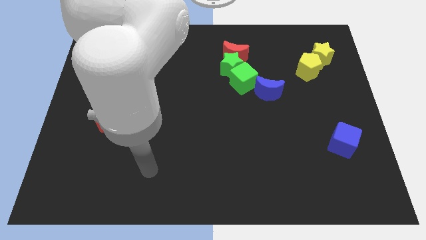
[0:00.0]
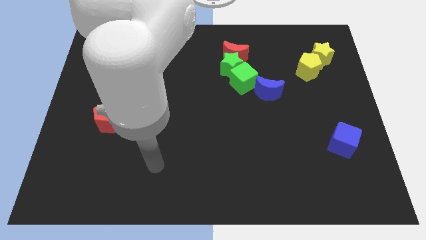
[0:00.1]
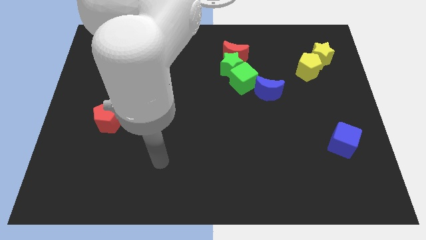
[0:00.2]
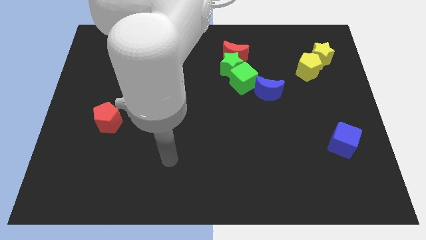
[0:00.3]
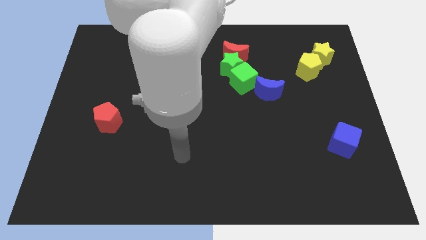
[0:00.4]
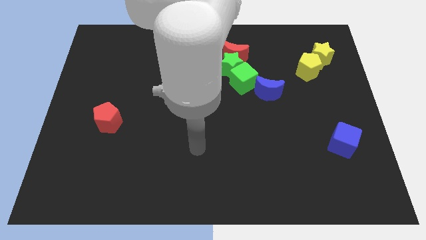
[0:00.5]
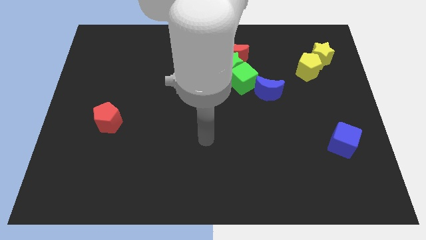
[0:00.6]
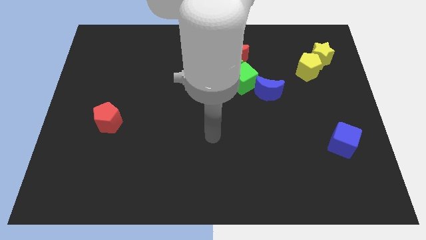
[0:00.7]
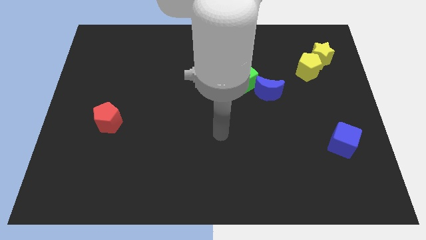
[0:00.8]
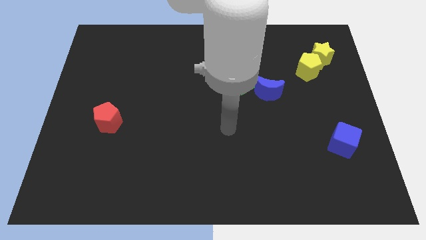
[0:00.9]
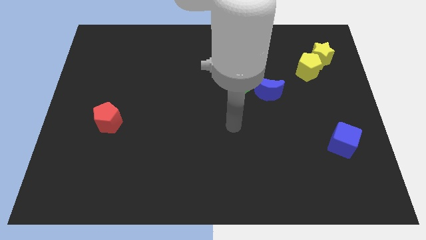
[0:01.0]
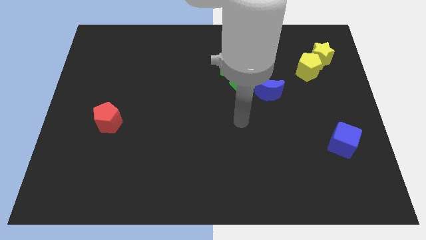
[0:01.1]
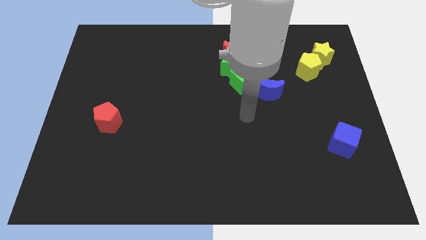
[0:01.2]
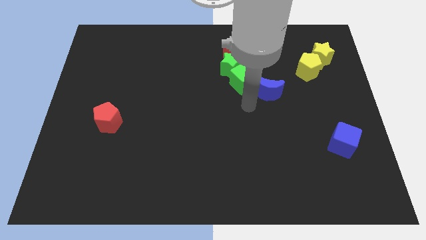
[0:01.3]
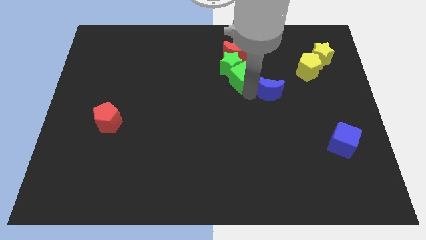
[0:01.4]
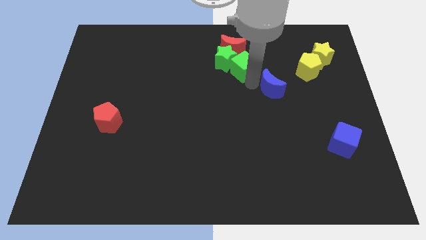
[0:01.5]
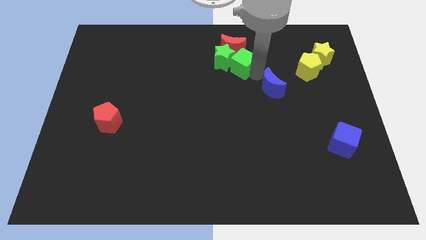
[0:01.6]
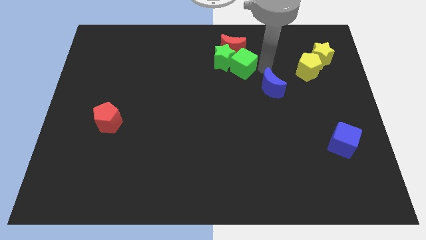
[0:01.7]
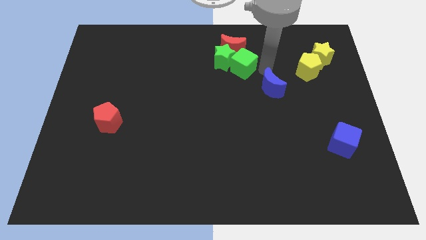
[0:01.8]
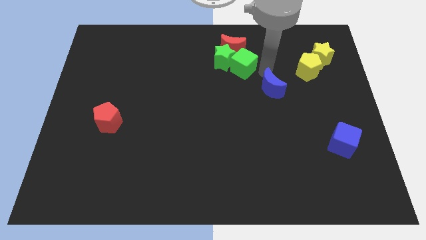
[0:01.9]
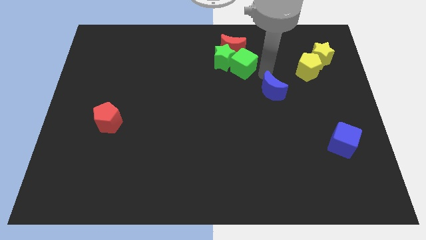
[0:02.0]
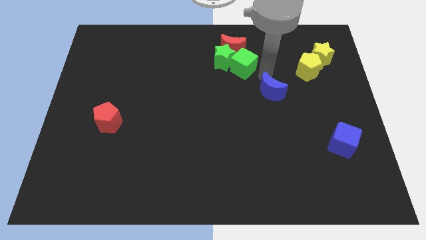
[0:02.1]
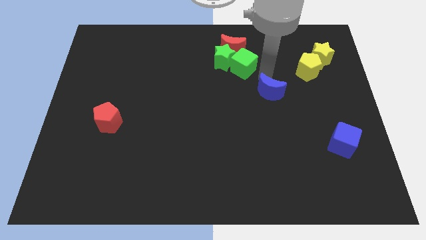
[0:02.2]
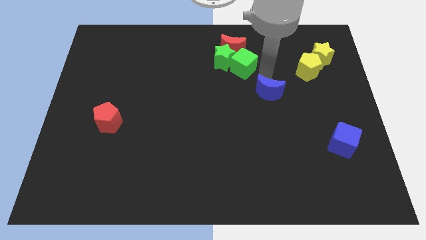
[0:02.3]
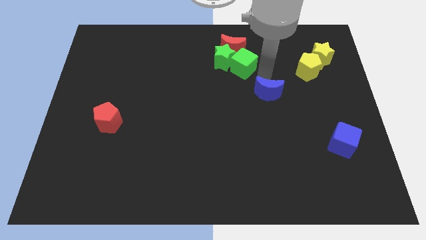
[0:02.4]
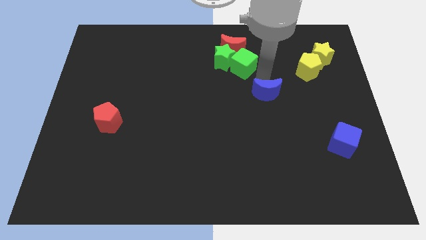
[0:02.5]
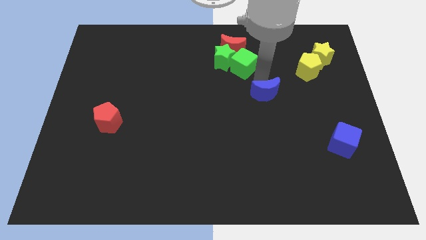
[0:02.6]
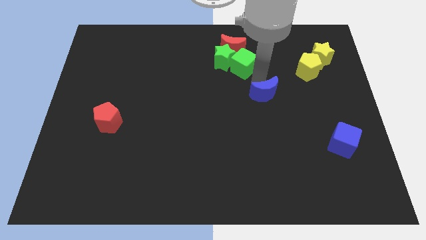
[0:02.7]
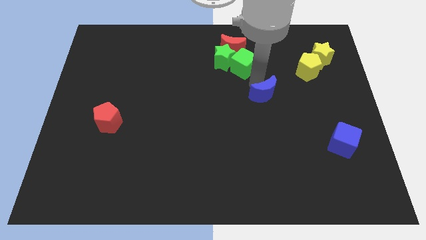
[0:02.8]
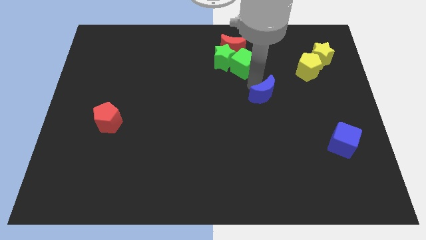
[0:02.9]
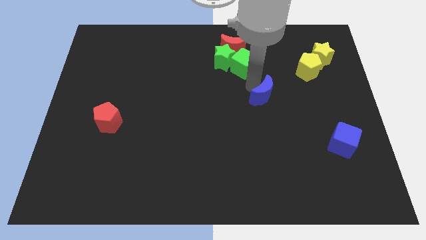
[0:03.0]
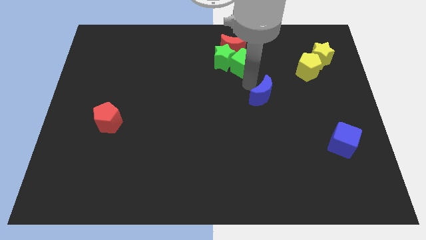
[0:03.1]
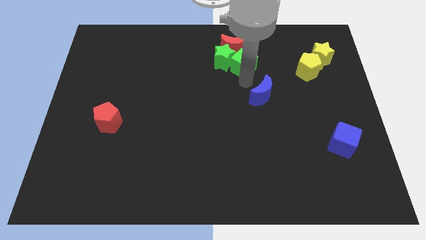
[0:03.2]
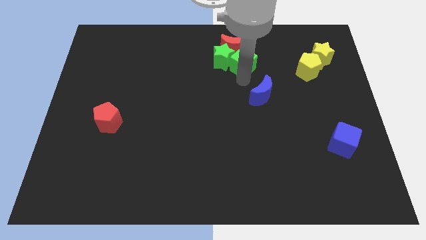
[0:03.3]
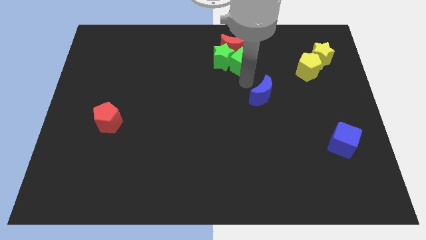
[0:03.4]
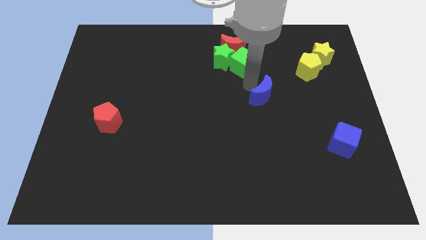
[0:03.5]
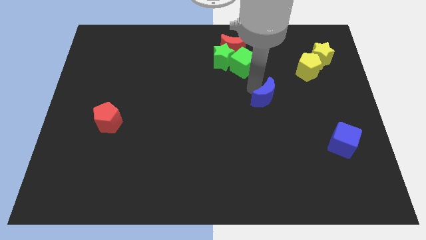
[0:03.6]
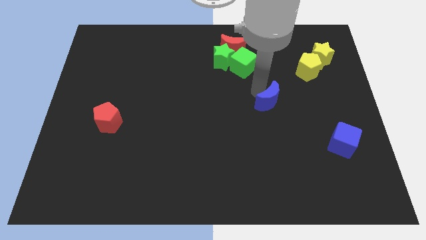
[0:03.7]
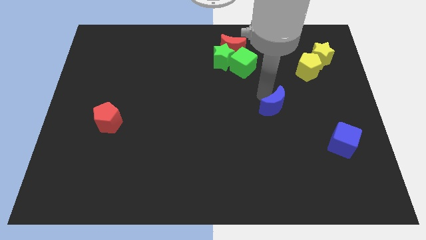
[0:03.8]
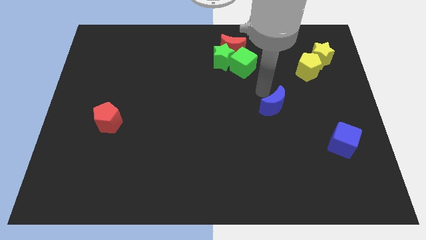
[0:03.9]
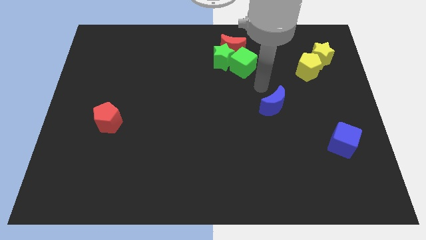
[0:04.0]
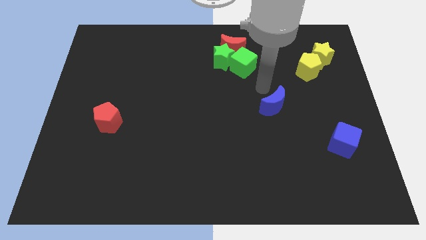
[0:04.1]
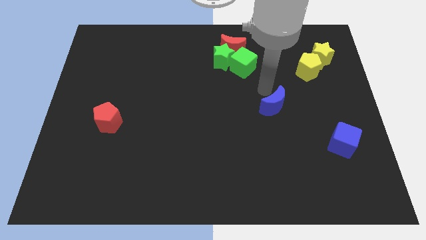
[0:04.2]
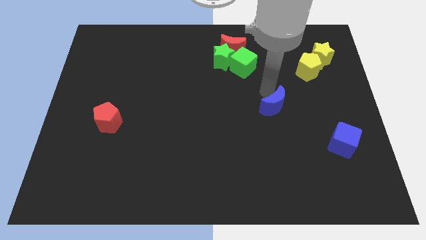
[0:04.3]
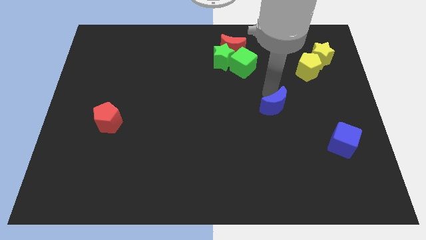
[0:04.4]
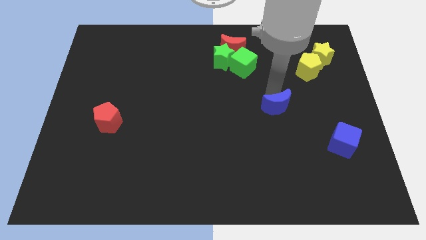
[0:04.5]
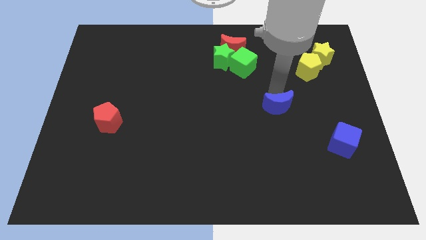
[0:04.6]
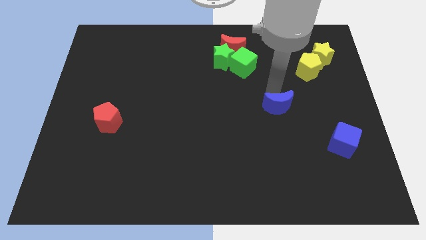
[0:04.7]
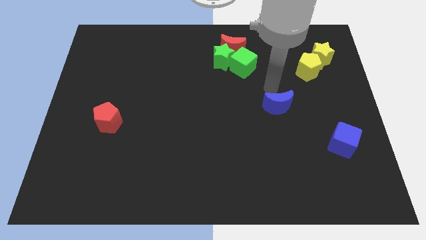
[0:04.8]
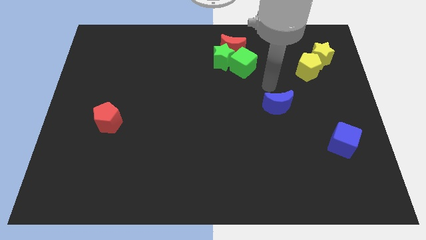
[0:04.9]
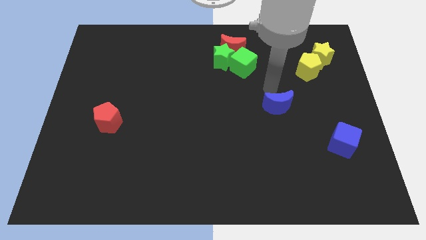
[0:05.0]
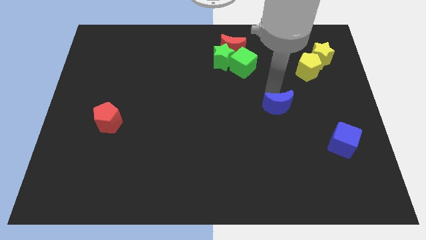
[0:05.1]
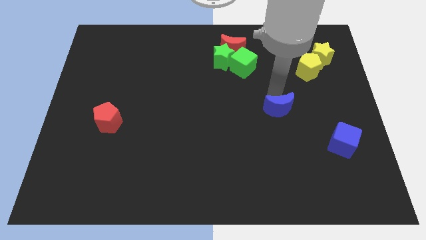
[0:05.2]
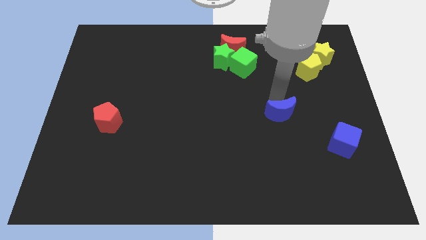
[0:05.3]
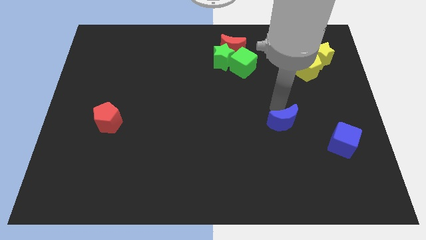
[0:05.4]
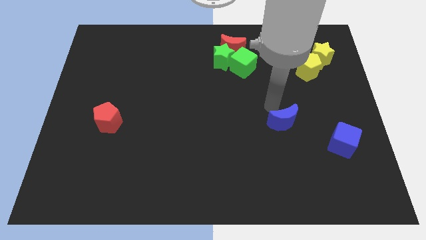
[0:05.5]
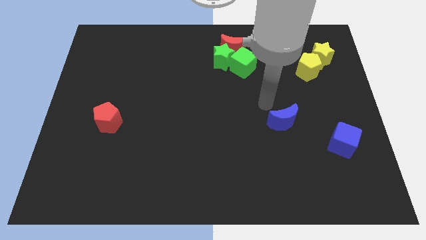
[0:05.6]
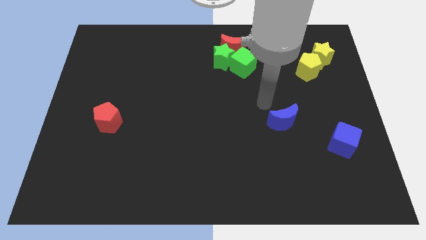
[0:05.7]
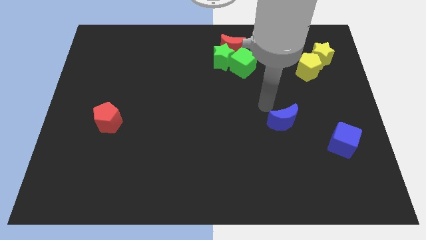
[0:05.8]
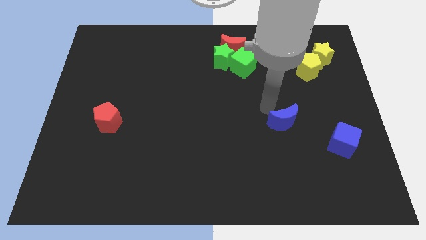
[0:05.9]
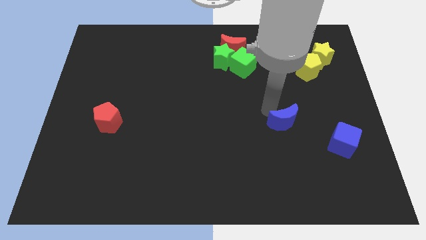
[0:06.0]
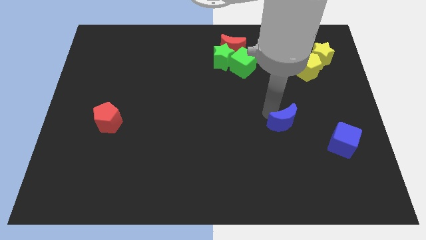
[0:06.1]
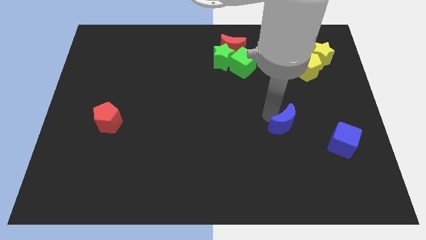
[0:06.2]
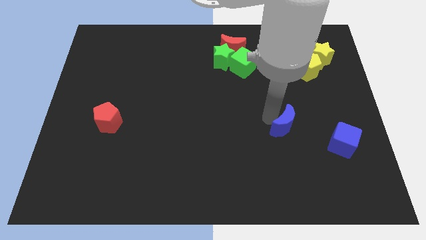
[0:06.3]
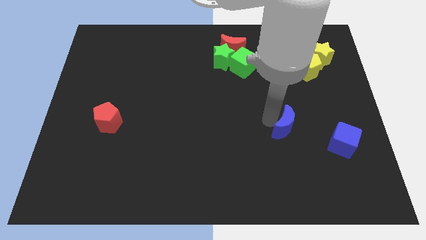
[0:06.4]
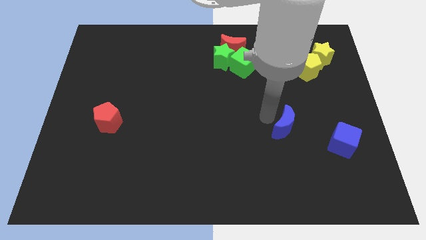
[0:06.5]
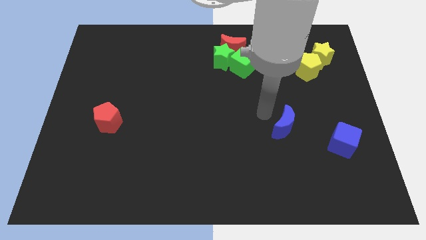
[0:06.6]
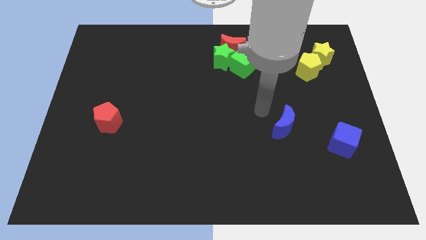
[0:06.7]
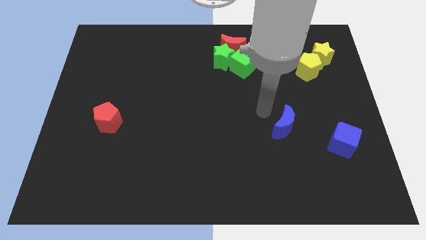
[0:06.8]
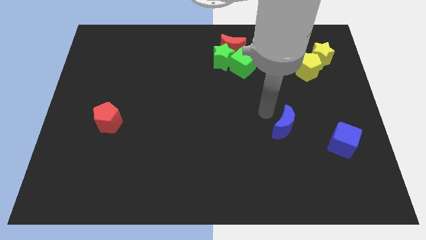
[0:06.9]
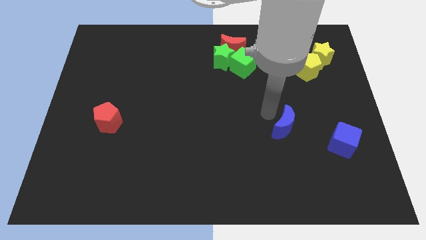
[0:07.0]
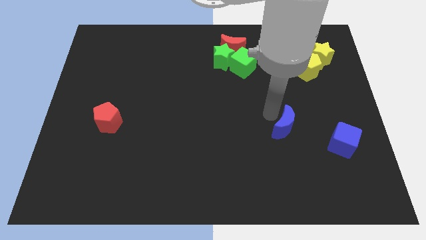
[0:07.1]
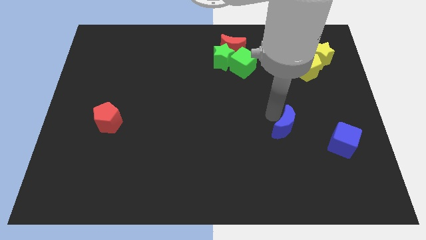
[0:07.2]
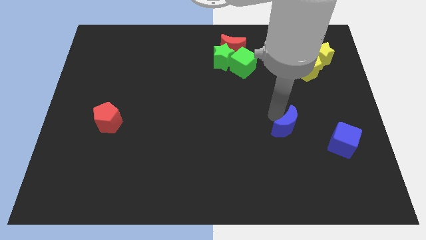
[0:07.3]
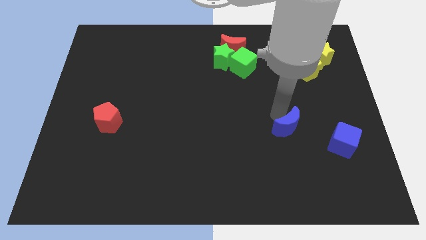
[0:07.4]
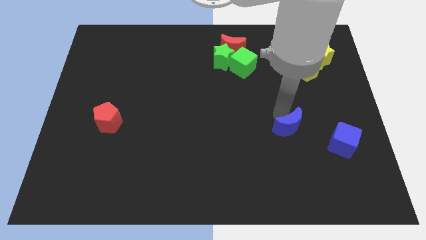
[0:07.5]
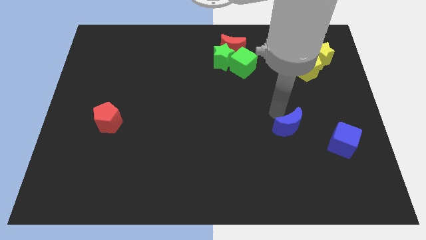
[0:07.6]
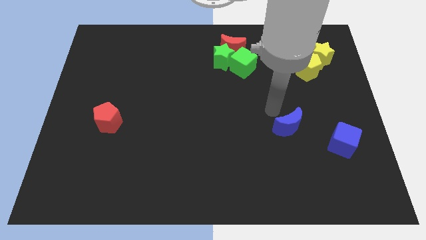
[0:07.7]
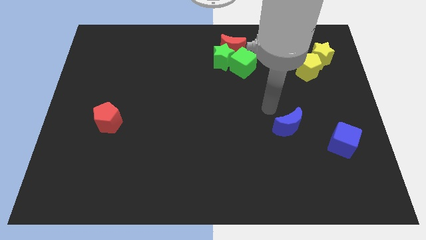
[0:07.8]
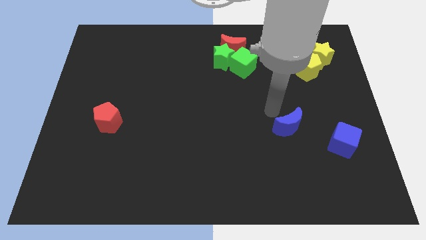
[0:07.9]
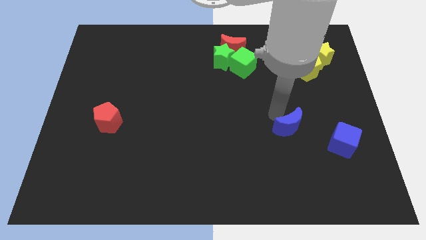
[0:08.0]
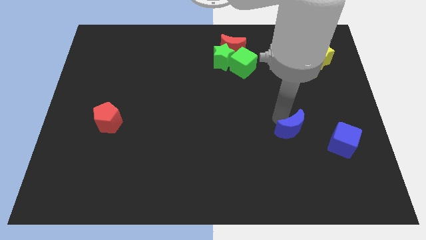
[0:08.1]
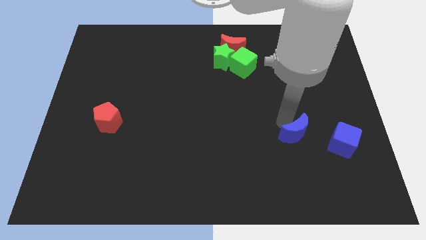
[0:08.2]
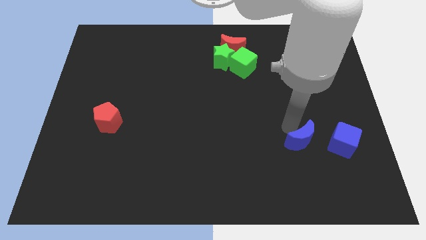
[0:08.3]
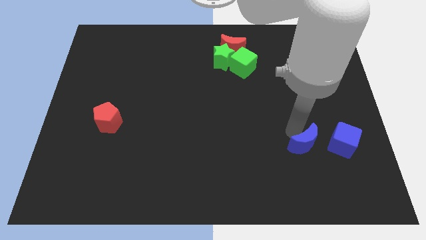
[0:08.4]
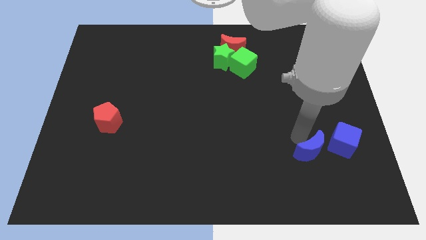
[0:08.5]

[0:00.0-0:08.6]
put the blue moon to the bottom left side of the blue cube

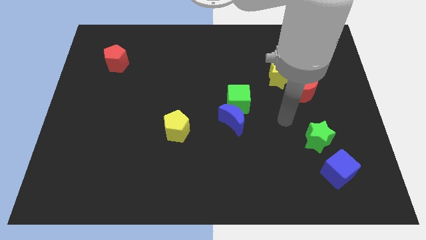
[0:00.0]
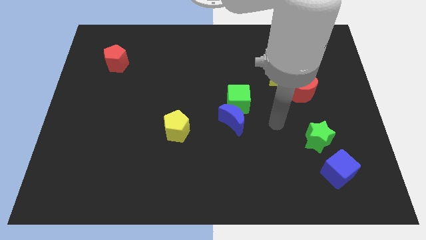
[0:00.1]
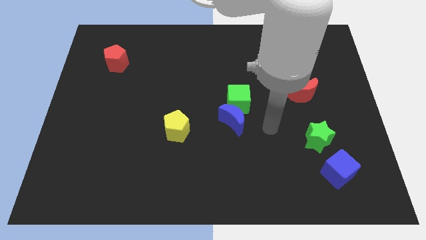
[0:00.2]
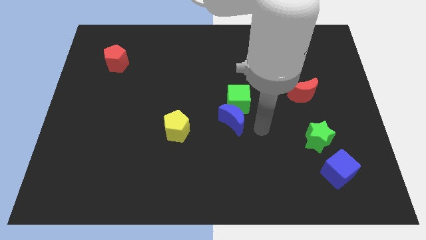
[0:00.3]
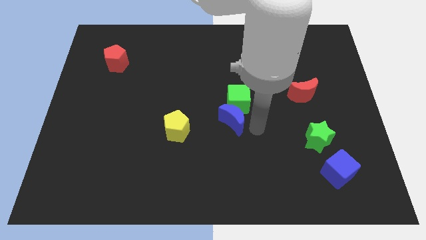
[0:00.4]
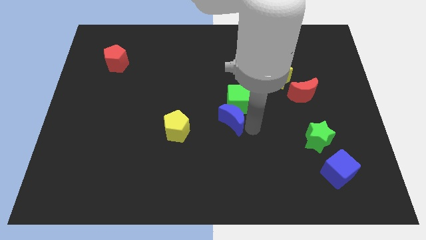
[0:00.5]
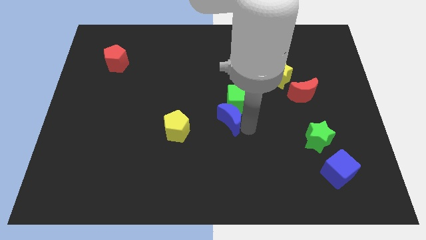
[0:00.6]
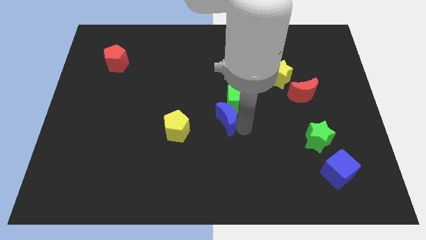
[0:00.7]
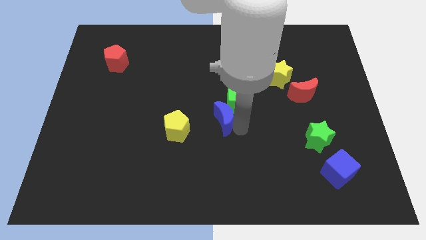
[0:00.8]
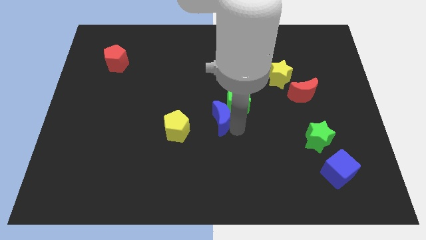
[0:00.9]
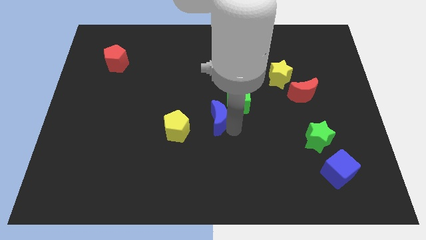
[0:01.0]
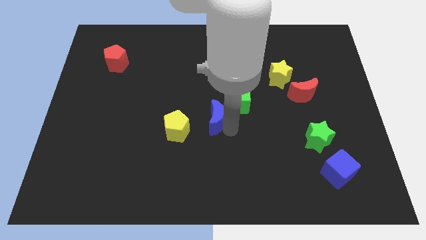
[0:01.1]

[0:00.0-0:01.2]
put the blue moon to the top right of the yellow pentagon
